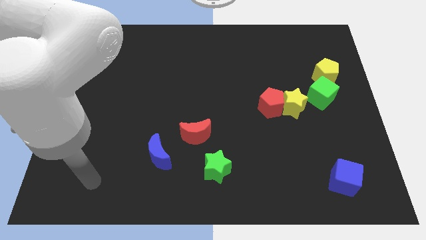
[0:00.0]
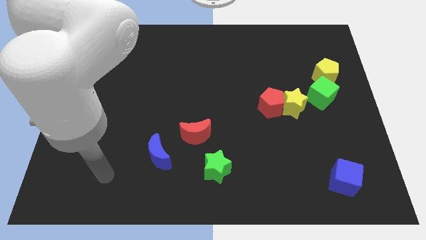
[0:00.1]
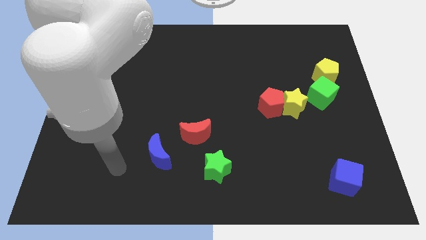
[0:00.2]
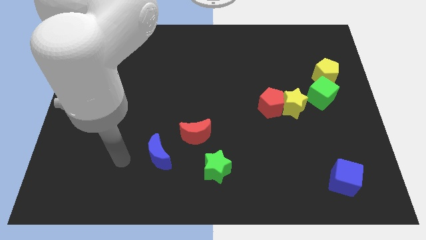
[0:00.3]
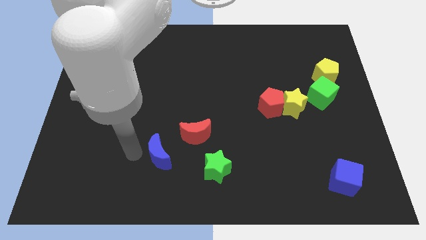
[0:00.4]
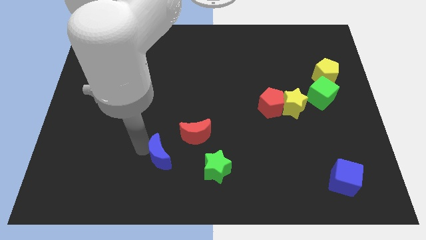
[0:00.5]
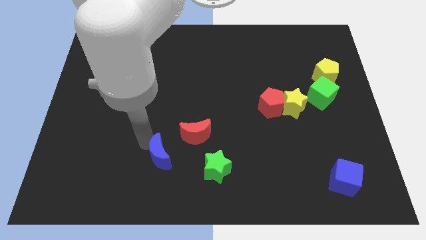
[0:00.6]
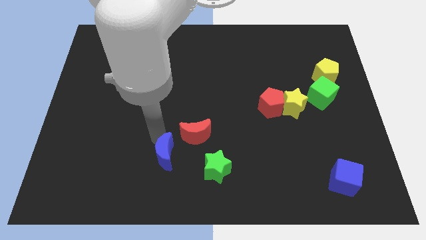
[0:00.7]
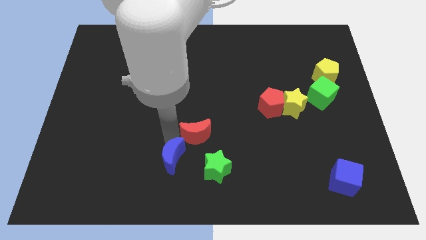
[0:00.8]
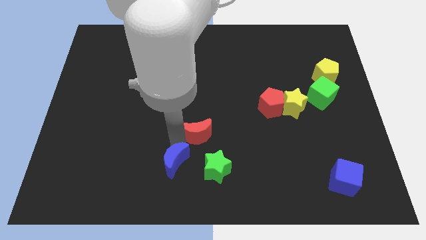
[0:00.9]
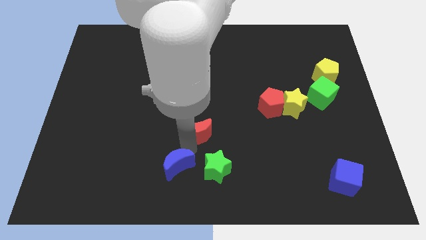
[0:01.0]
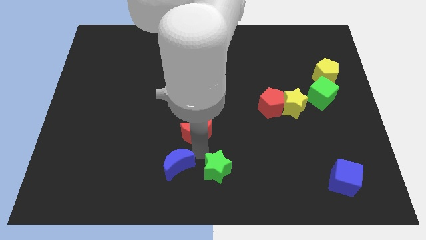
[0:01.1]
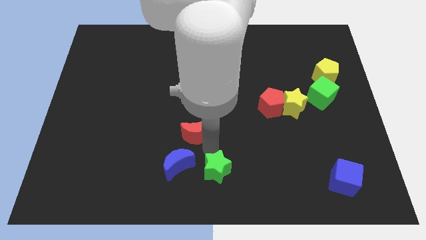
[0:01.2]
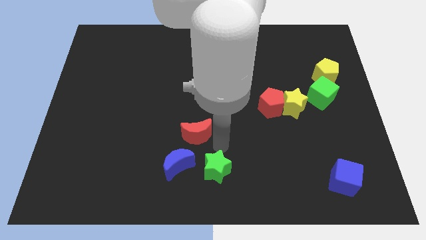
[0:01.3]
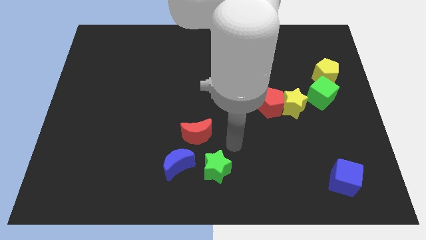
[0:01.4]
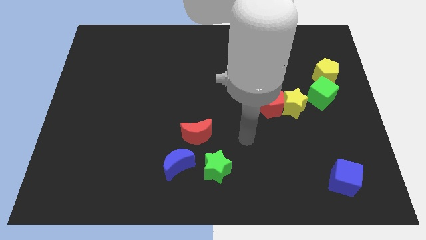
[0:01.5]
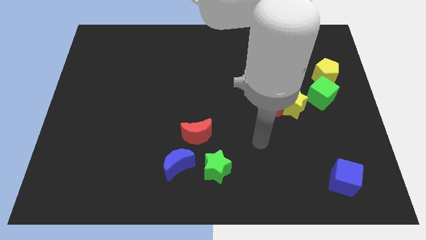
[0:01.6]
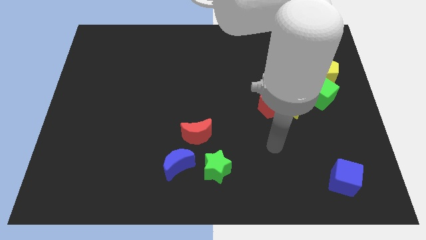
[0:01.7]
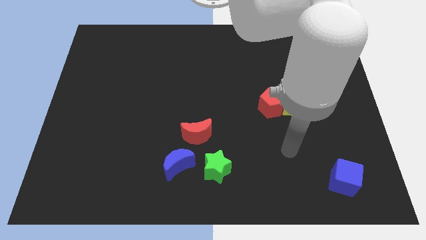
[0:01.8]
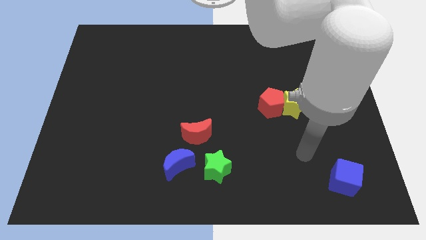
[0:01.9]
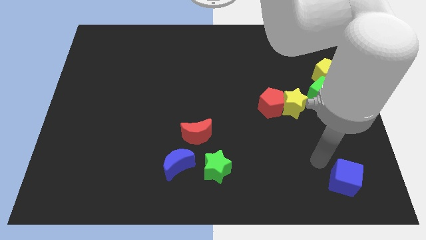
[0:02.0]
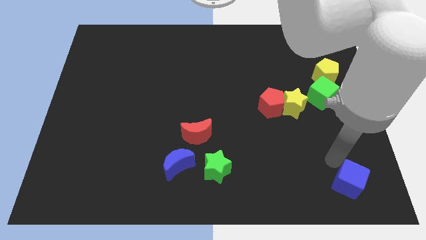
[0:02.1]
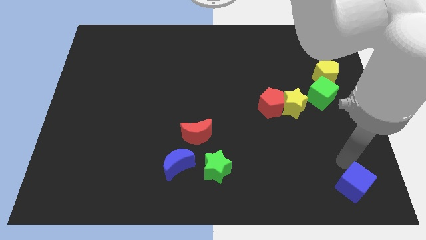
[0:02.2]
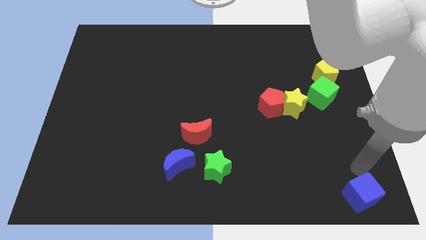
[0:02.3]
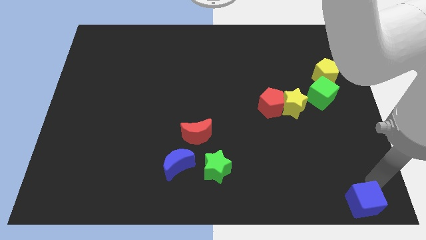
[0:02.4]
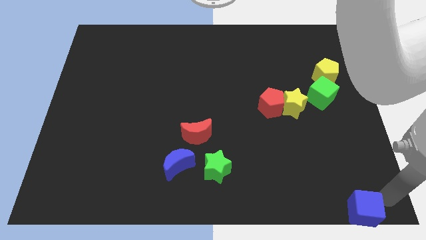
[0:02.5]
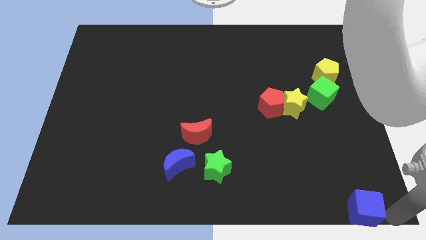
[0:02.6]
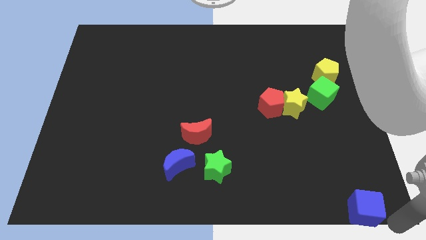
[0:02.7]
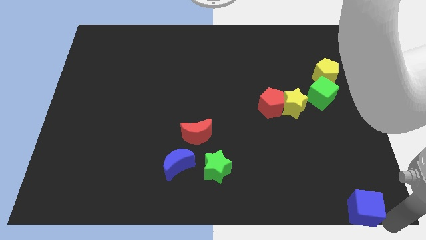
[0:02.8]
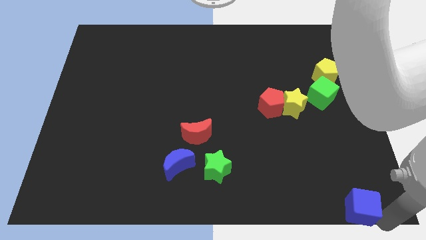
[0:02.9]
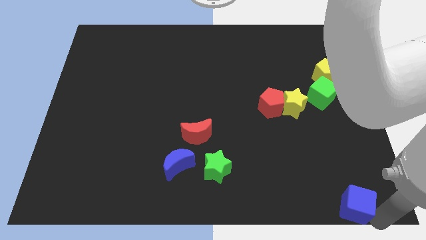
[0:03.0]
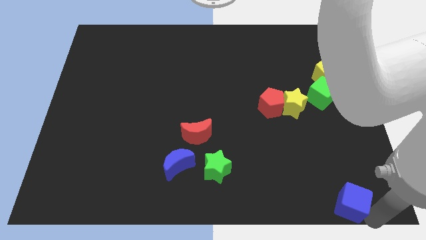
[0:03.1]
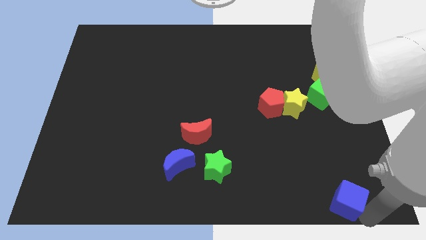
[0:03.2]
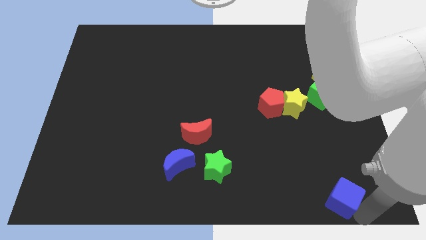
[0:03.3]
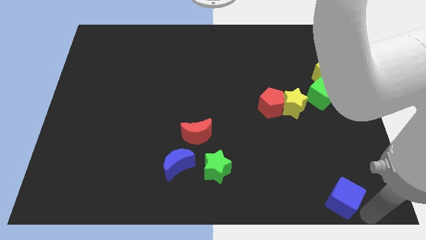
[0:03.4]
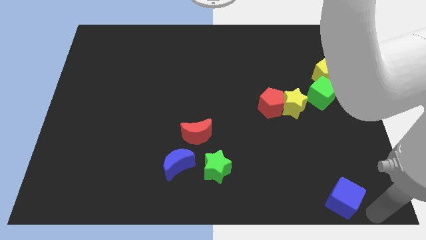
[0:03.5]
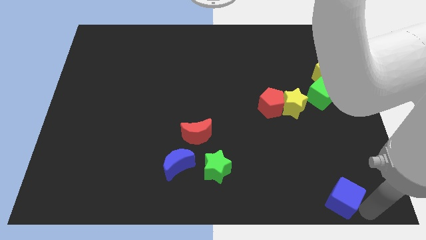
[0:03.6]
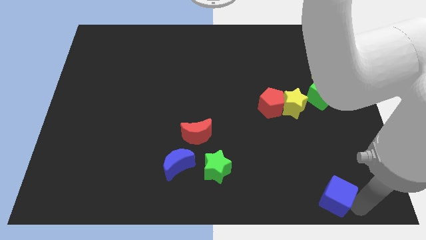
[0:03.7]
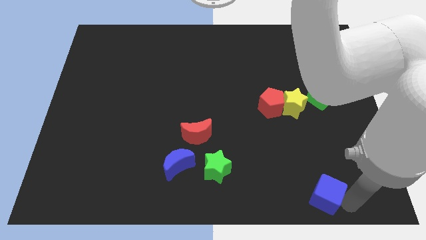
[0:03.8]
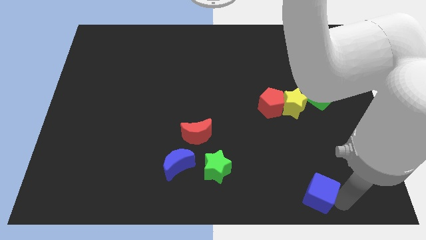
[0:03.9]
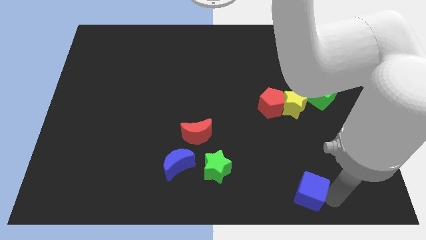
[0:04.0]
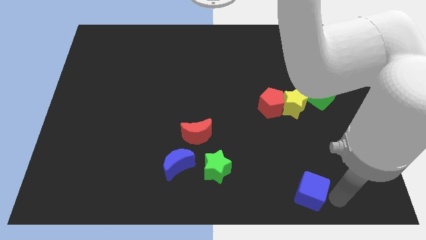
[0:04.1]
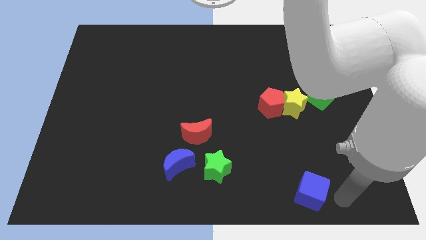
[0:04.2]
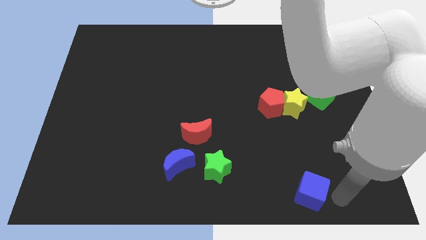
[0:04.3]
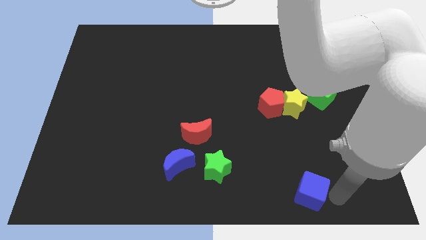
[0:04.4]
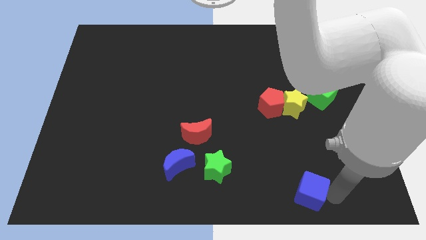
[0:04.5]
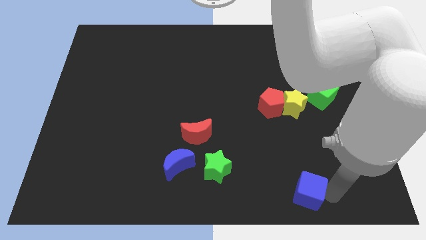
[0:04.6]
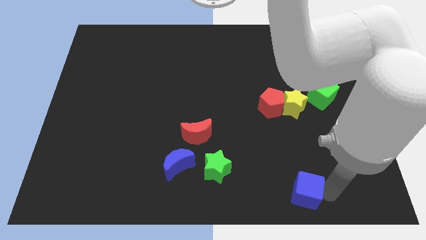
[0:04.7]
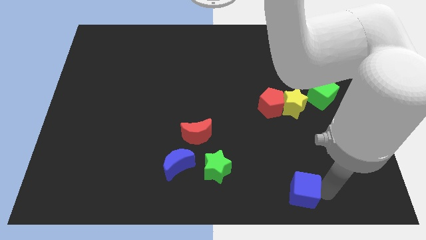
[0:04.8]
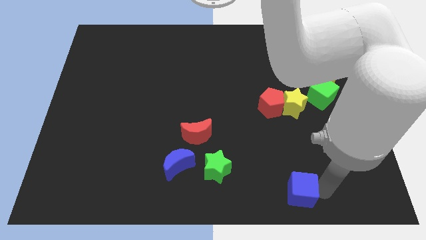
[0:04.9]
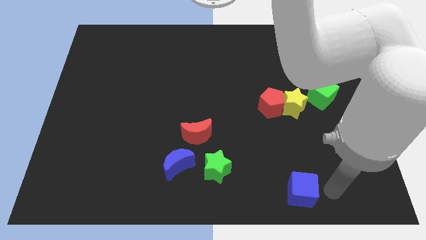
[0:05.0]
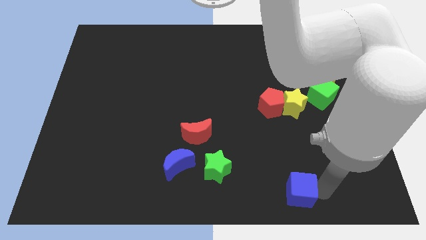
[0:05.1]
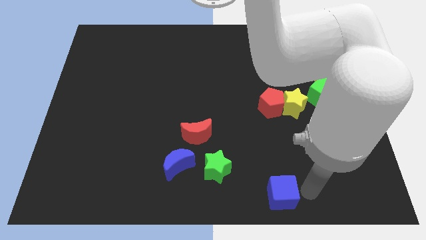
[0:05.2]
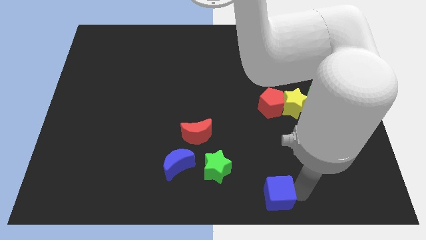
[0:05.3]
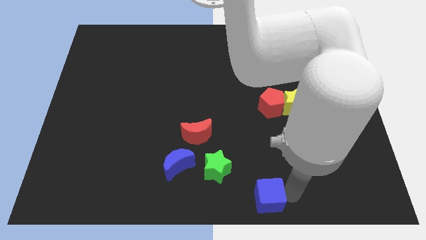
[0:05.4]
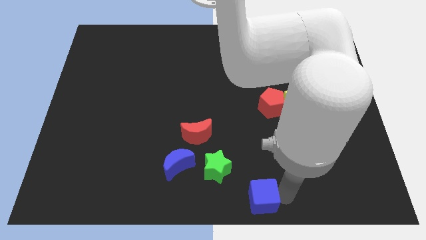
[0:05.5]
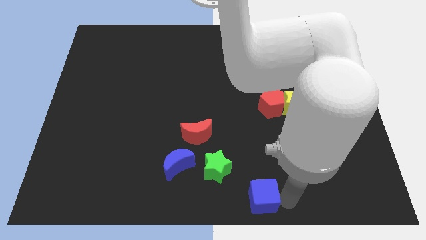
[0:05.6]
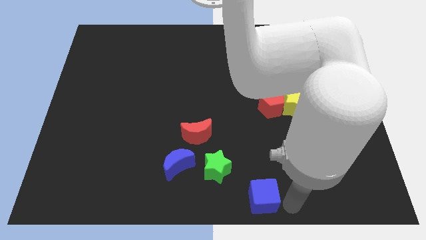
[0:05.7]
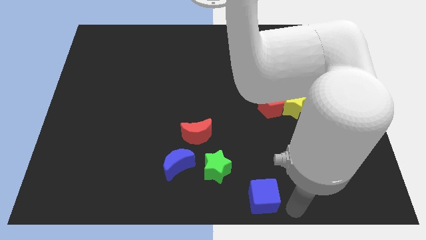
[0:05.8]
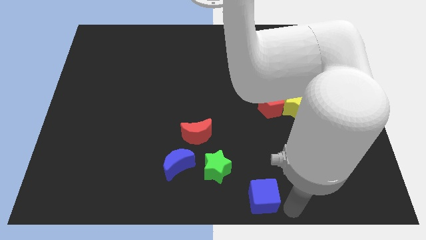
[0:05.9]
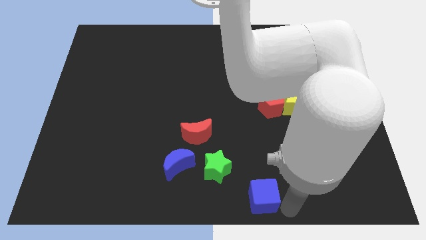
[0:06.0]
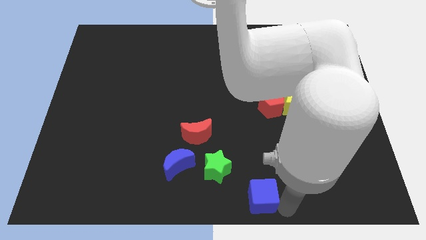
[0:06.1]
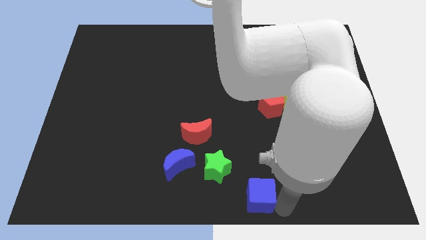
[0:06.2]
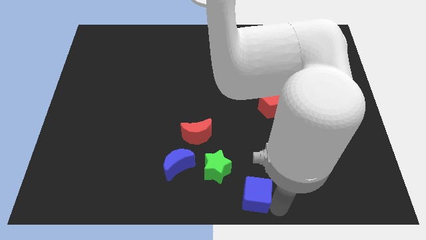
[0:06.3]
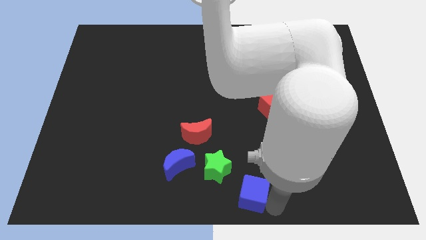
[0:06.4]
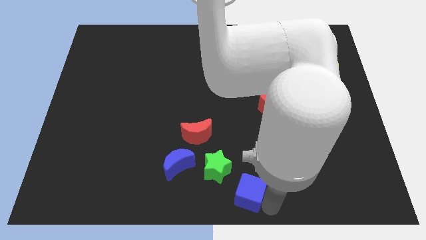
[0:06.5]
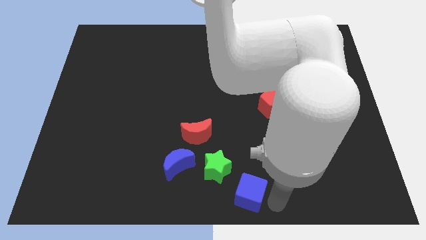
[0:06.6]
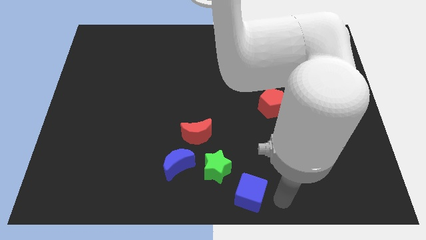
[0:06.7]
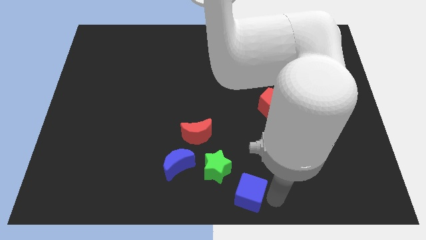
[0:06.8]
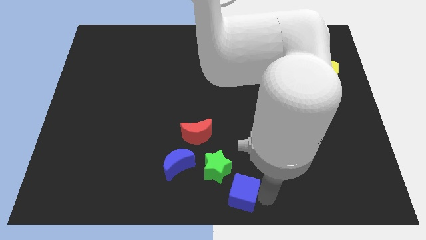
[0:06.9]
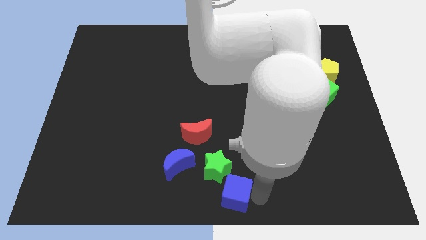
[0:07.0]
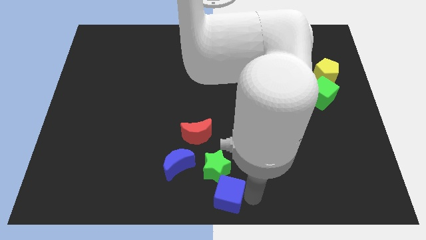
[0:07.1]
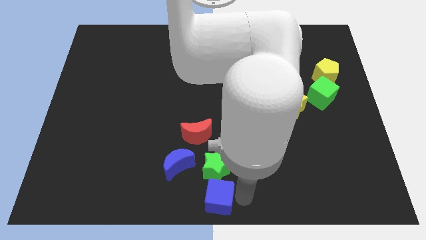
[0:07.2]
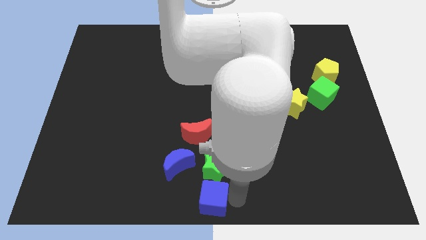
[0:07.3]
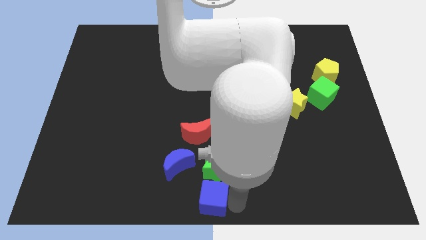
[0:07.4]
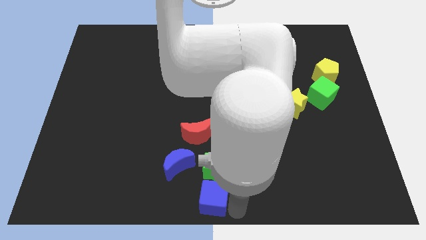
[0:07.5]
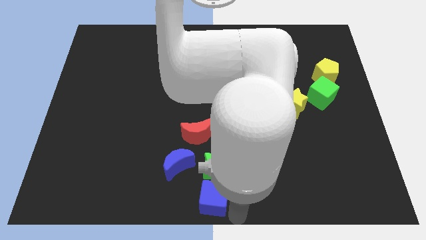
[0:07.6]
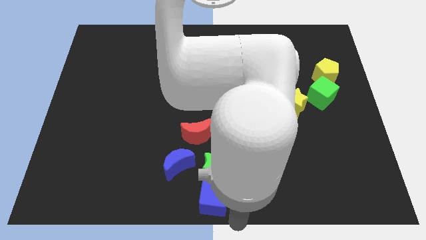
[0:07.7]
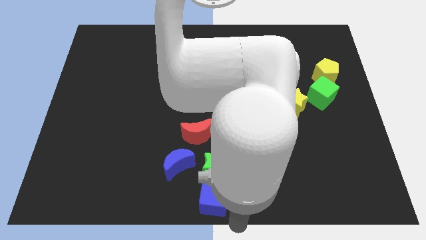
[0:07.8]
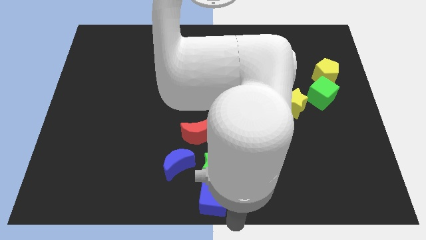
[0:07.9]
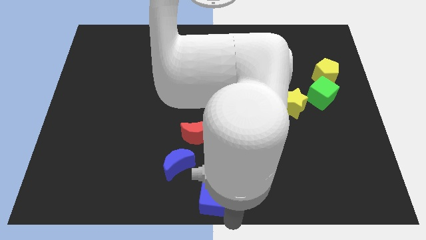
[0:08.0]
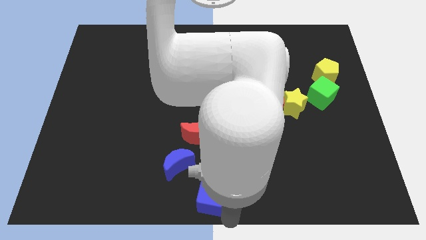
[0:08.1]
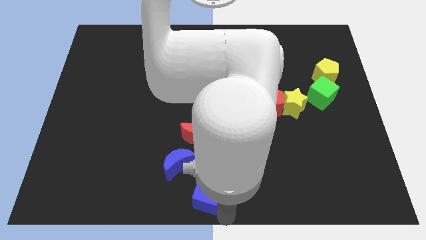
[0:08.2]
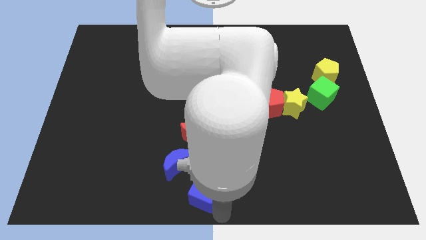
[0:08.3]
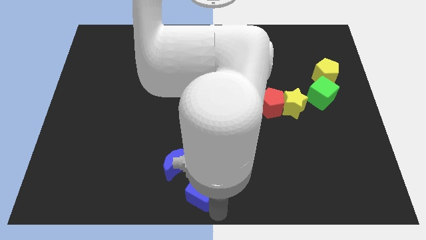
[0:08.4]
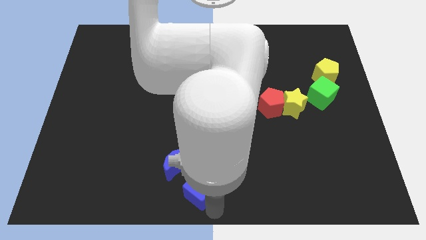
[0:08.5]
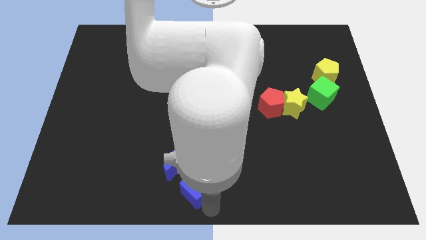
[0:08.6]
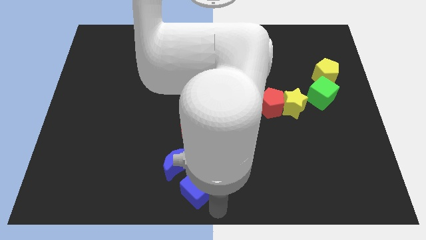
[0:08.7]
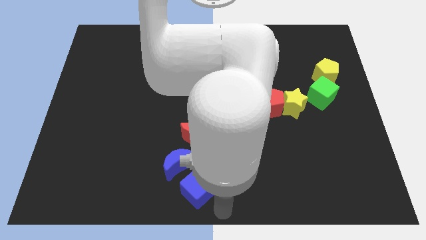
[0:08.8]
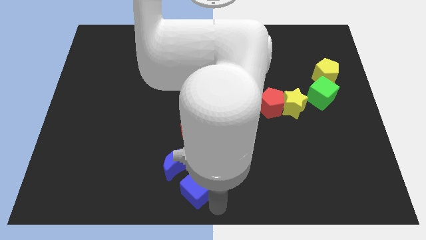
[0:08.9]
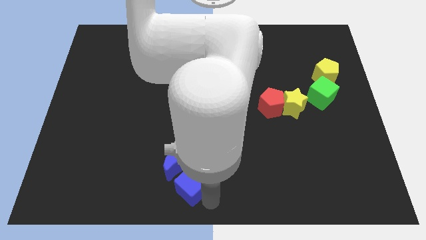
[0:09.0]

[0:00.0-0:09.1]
slide the blue cube next to the blue moon
